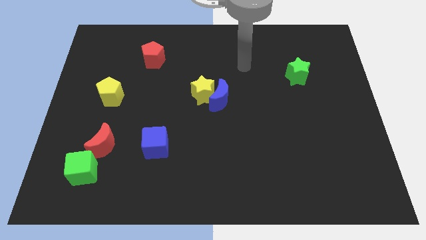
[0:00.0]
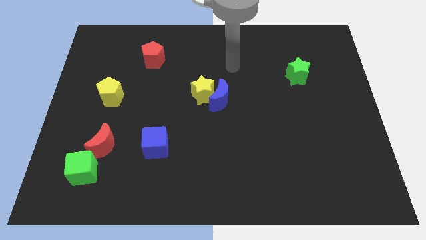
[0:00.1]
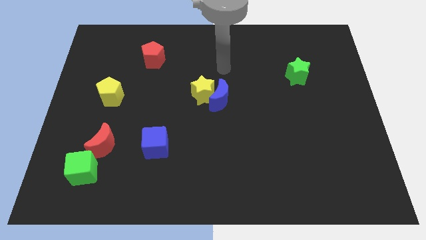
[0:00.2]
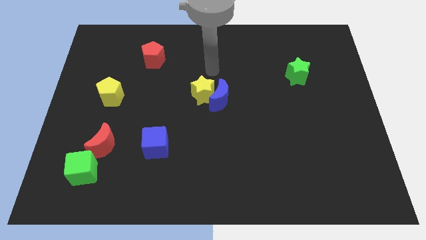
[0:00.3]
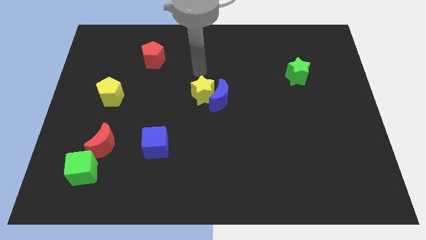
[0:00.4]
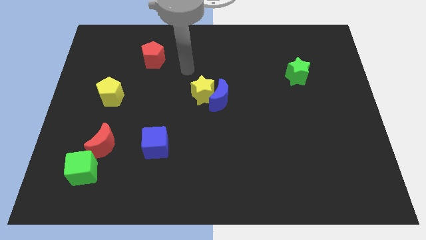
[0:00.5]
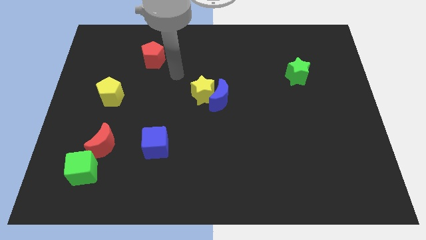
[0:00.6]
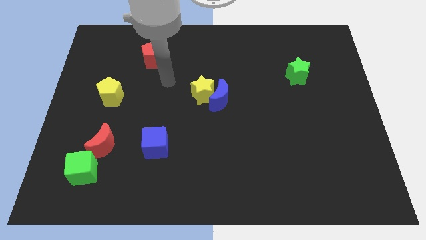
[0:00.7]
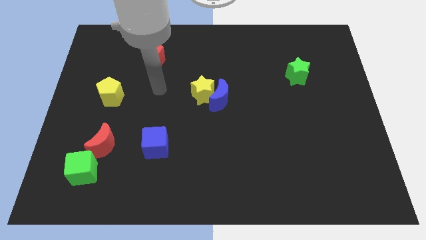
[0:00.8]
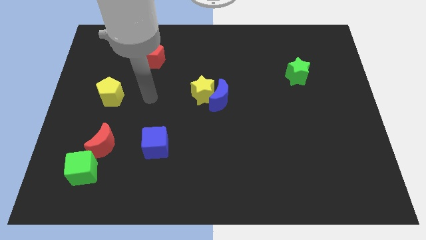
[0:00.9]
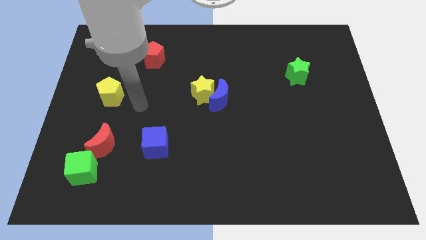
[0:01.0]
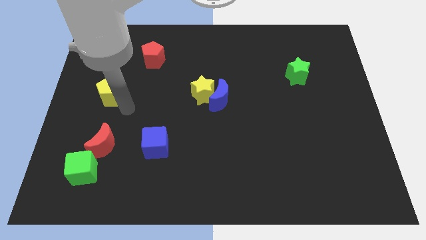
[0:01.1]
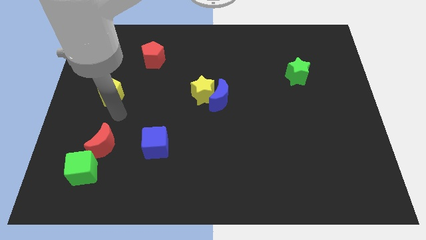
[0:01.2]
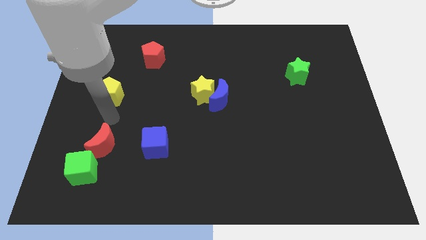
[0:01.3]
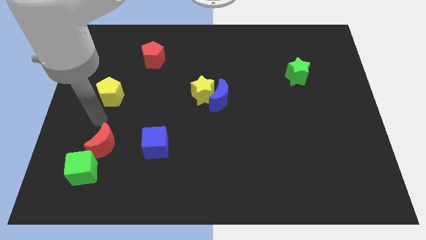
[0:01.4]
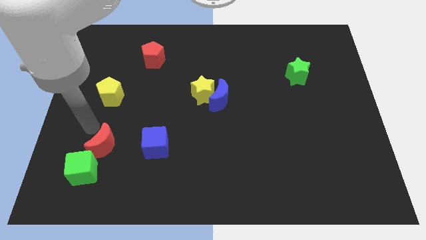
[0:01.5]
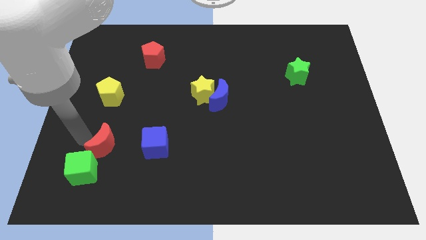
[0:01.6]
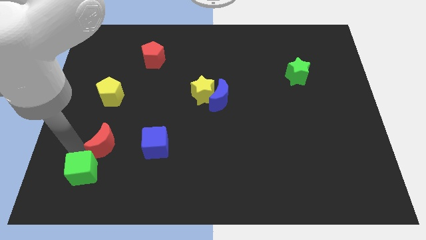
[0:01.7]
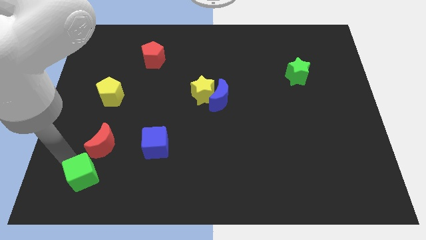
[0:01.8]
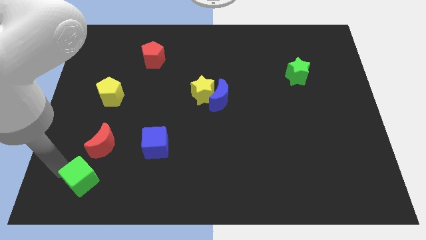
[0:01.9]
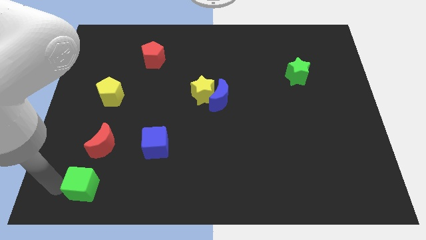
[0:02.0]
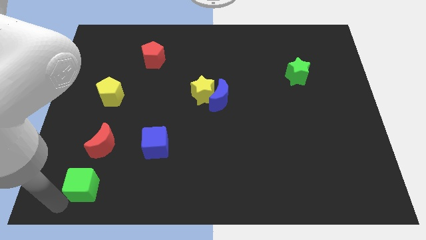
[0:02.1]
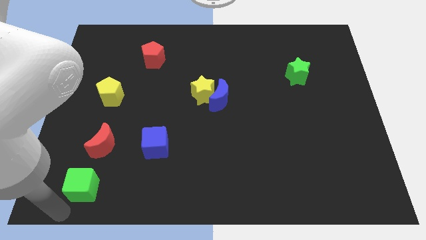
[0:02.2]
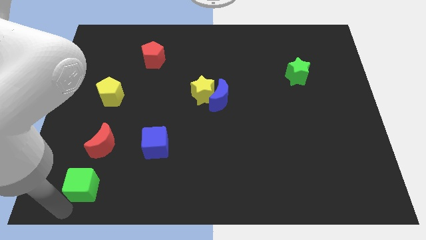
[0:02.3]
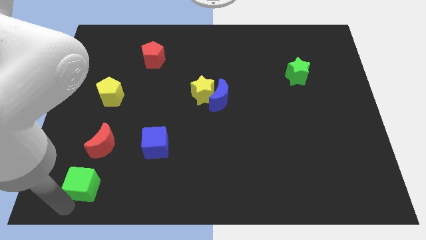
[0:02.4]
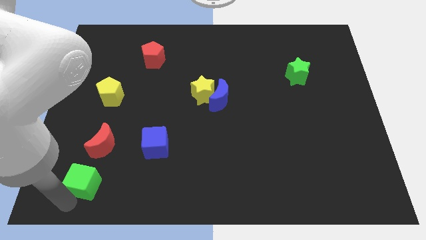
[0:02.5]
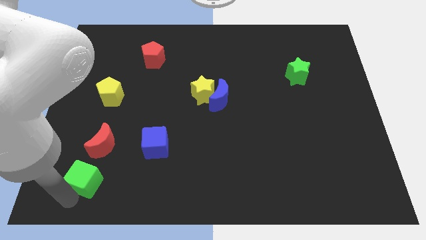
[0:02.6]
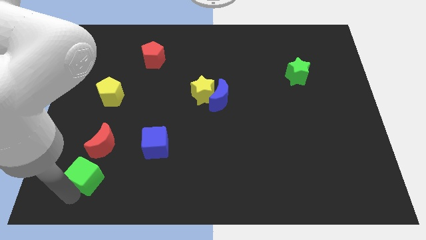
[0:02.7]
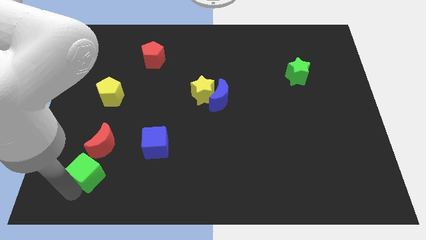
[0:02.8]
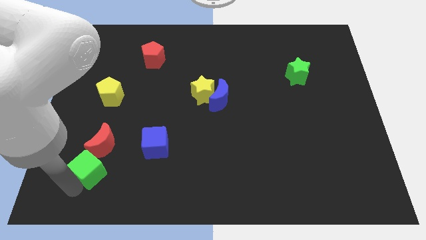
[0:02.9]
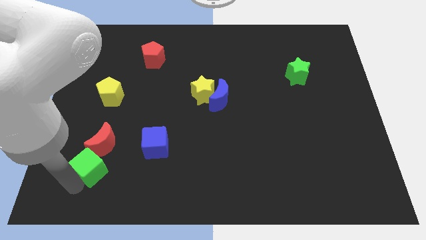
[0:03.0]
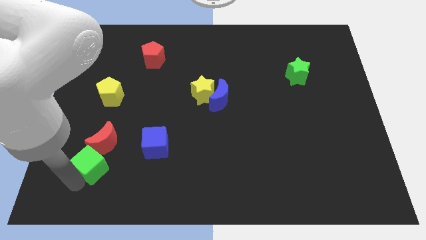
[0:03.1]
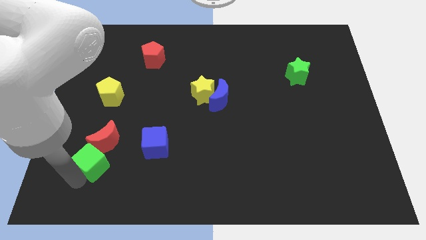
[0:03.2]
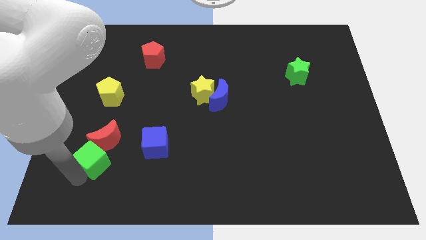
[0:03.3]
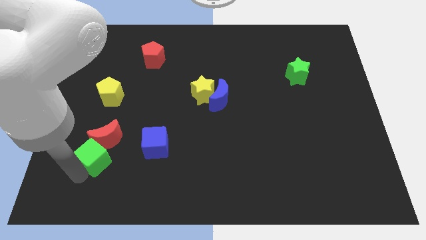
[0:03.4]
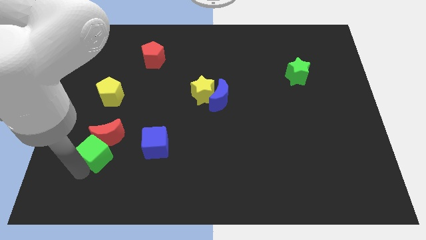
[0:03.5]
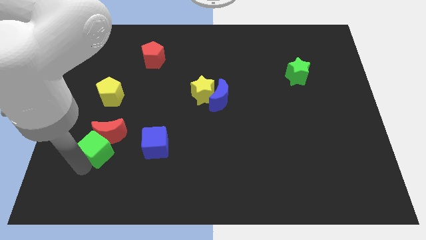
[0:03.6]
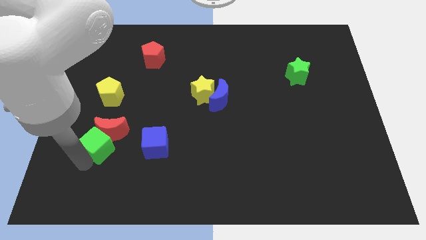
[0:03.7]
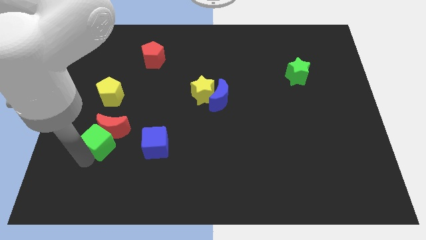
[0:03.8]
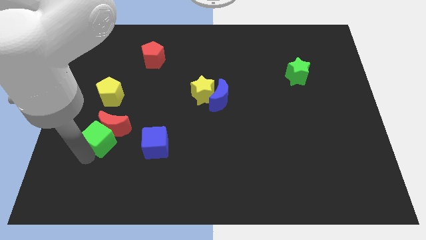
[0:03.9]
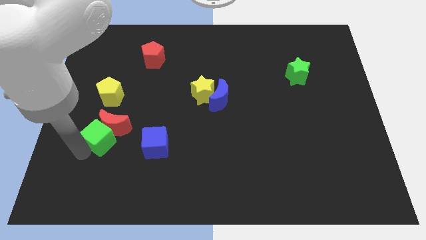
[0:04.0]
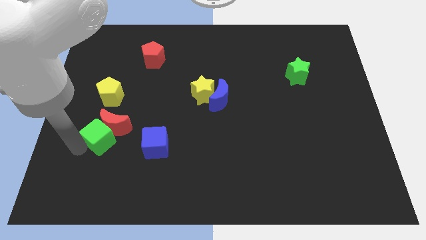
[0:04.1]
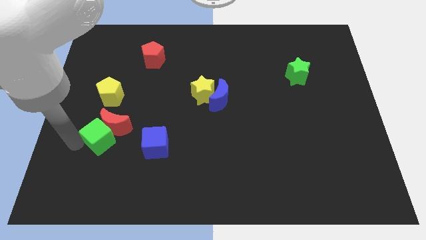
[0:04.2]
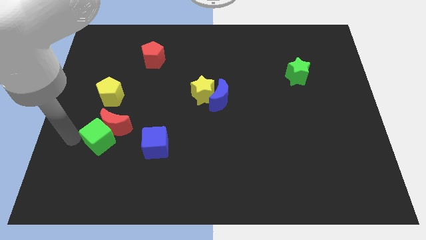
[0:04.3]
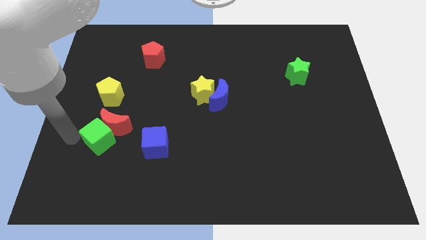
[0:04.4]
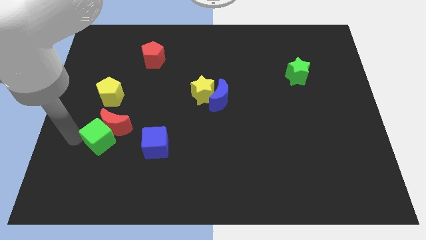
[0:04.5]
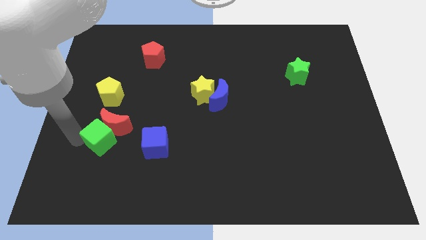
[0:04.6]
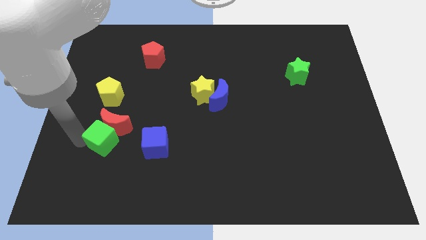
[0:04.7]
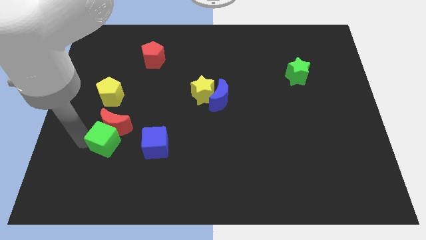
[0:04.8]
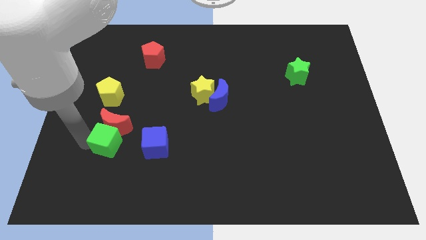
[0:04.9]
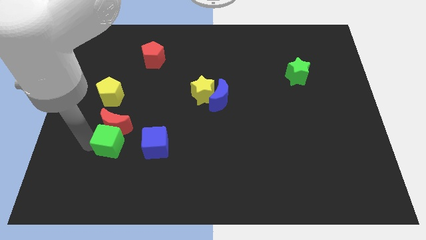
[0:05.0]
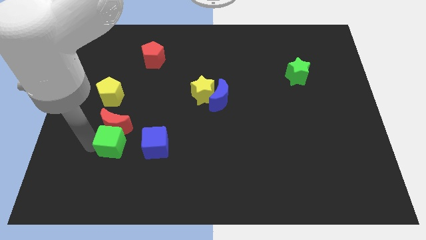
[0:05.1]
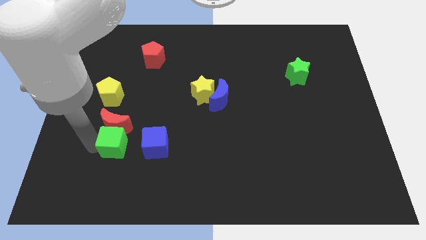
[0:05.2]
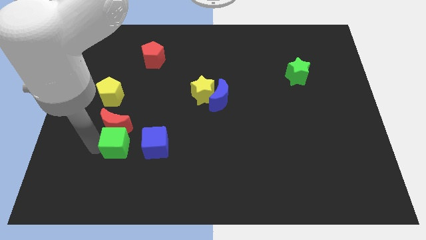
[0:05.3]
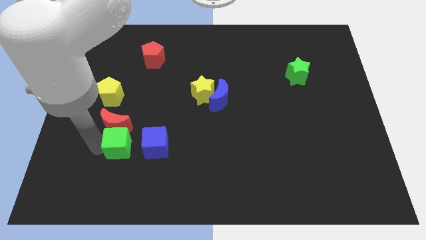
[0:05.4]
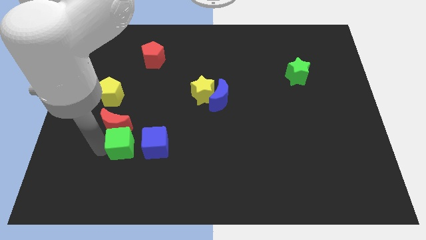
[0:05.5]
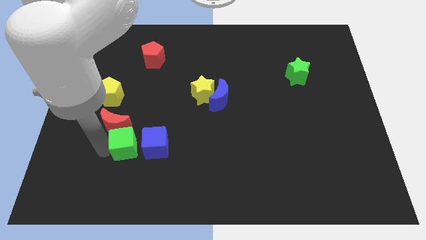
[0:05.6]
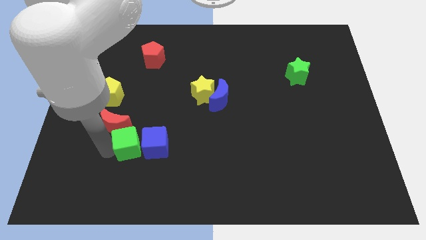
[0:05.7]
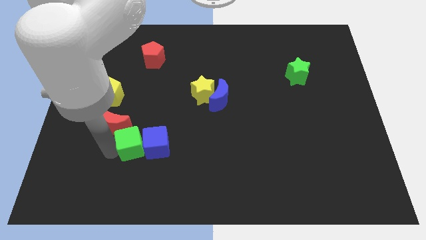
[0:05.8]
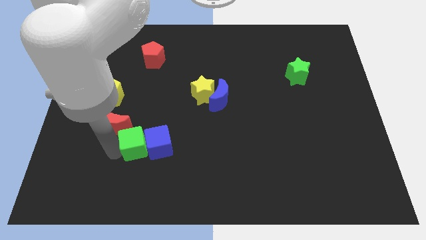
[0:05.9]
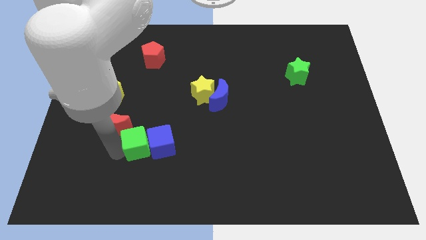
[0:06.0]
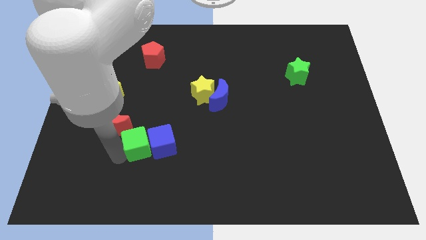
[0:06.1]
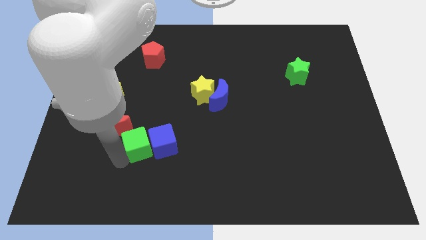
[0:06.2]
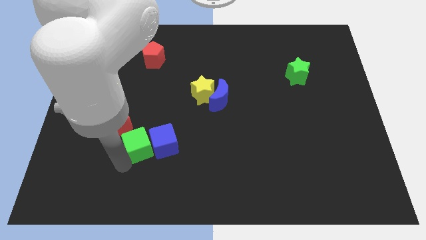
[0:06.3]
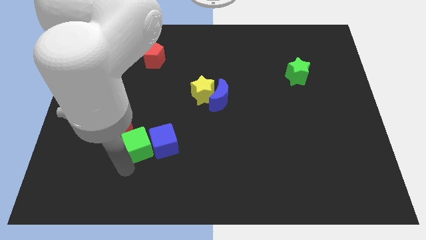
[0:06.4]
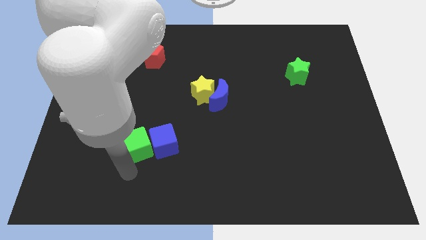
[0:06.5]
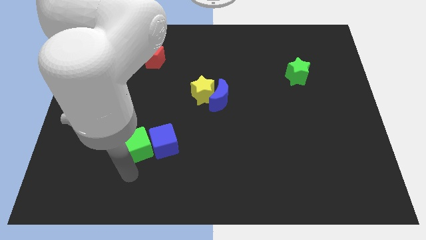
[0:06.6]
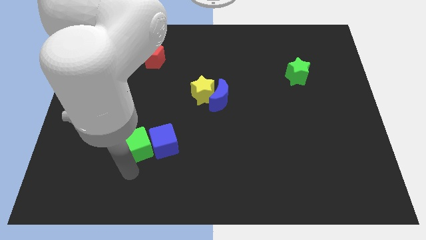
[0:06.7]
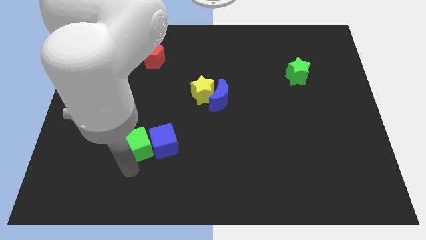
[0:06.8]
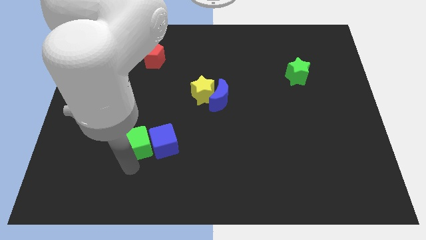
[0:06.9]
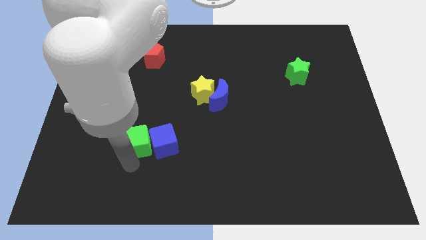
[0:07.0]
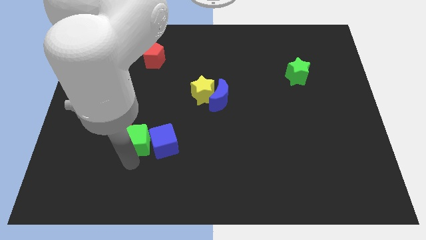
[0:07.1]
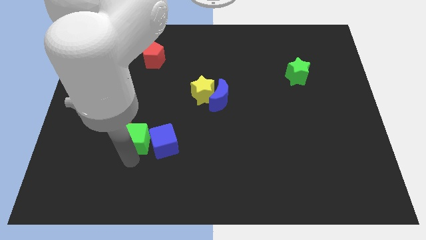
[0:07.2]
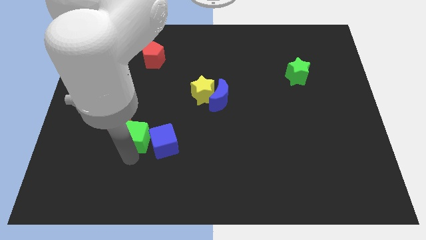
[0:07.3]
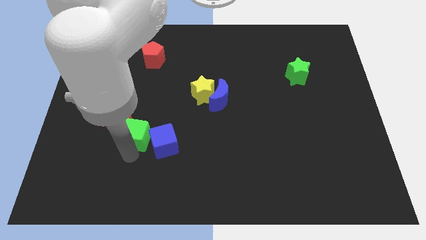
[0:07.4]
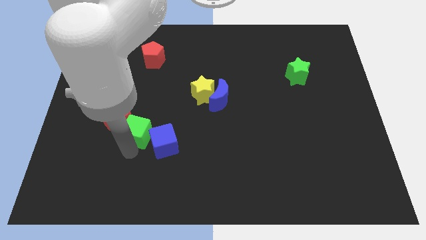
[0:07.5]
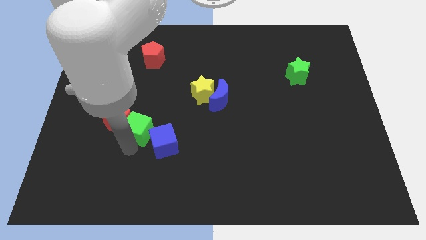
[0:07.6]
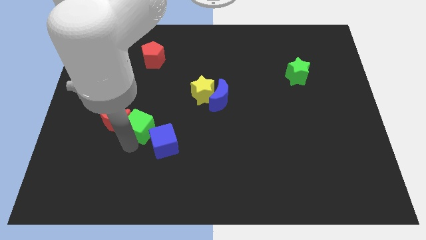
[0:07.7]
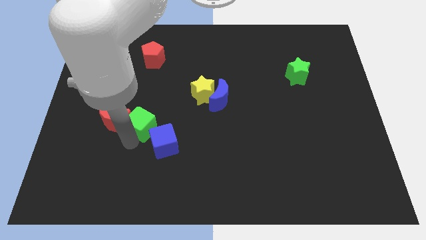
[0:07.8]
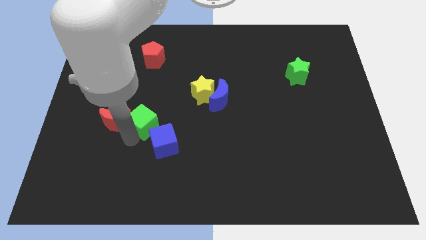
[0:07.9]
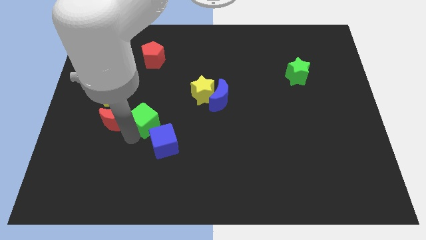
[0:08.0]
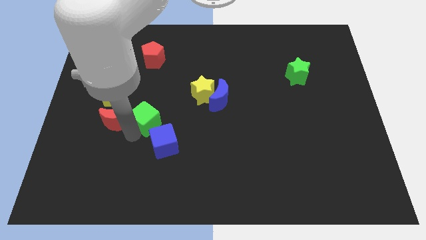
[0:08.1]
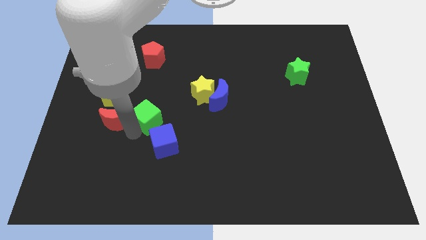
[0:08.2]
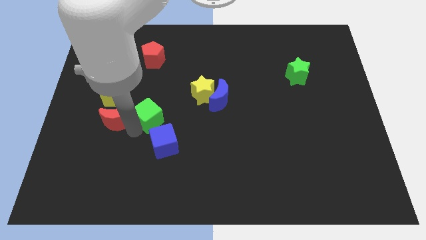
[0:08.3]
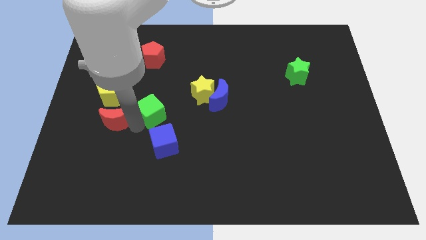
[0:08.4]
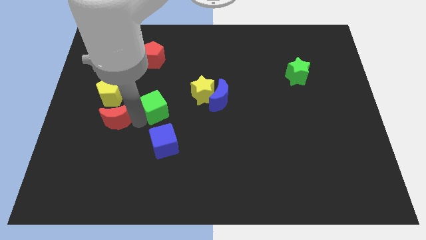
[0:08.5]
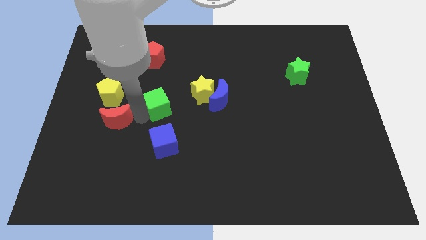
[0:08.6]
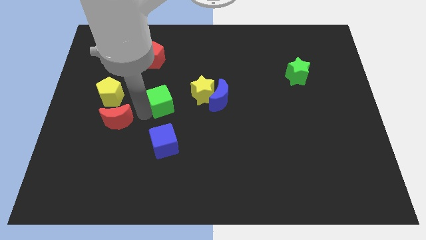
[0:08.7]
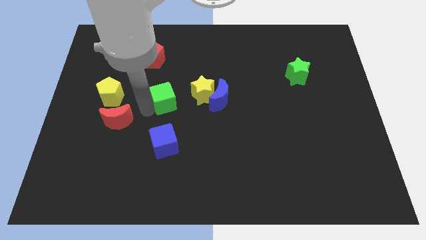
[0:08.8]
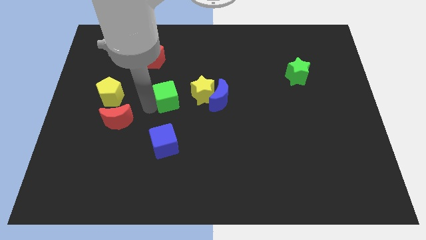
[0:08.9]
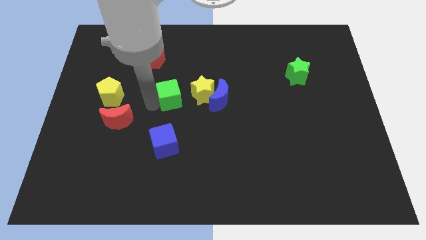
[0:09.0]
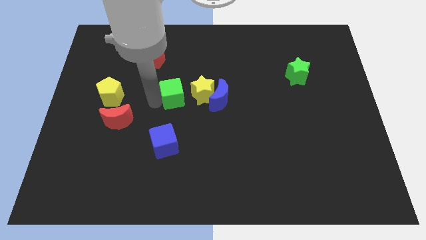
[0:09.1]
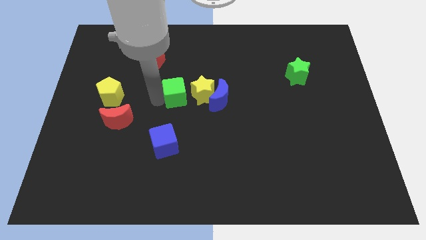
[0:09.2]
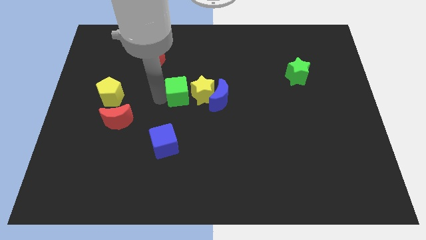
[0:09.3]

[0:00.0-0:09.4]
push the green cube towards the yellow star
